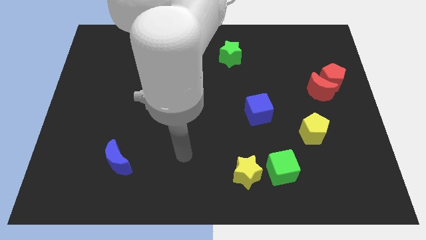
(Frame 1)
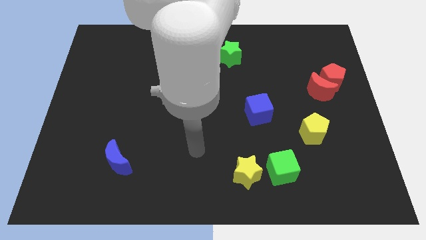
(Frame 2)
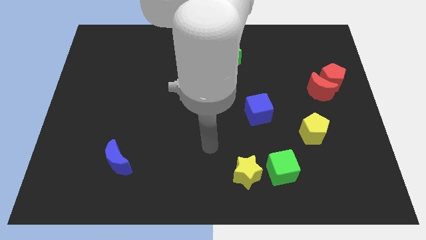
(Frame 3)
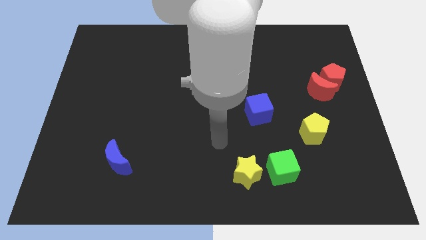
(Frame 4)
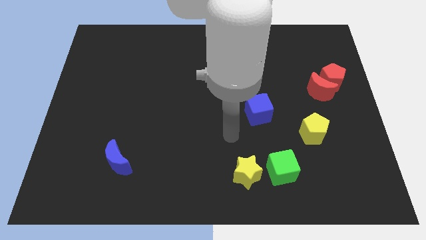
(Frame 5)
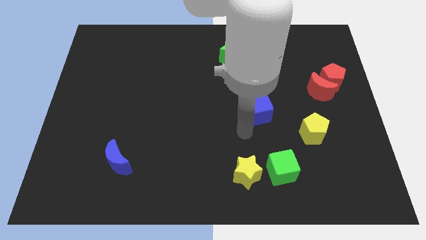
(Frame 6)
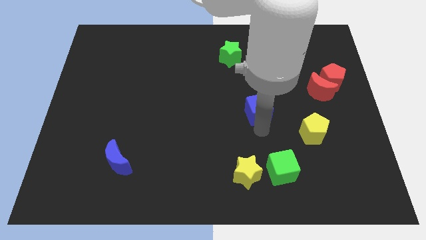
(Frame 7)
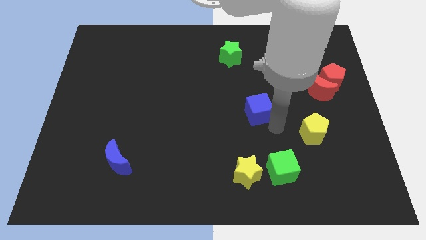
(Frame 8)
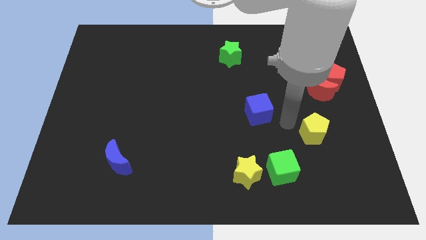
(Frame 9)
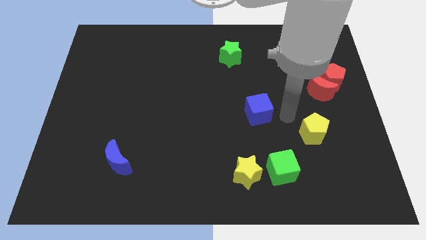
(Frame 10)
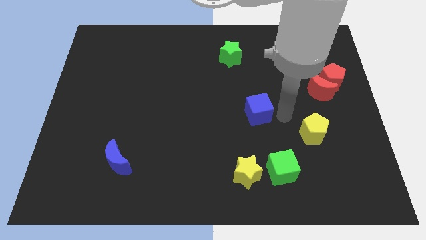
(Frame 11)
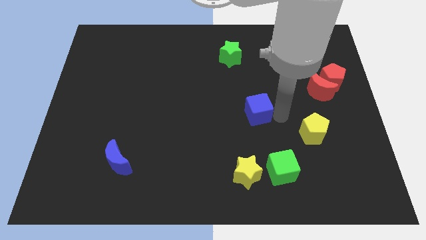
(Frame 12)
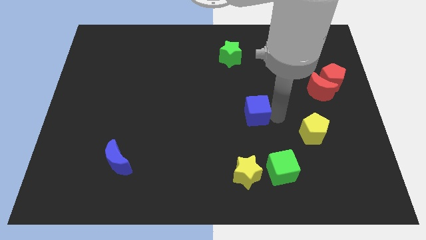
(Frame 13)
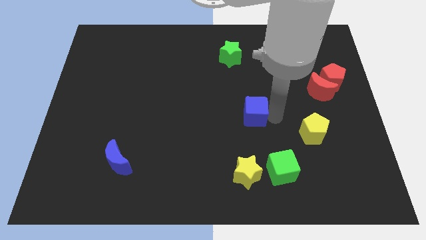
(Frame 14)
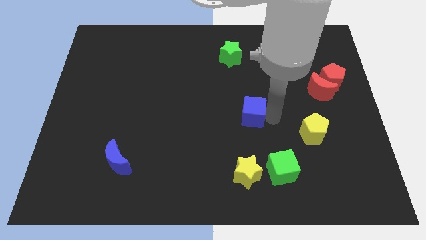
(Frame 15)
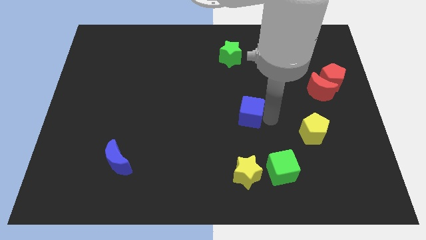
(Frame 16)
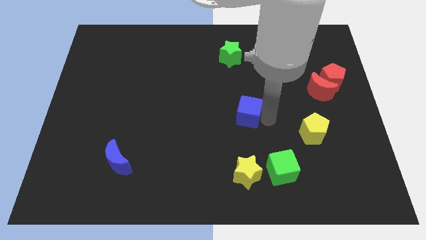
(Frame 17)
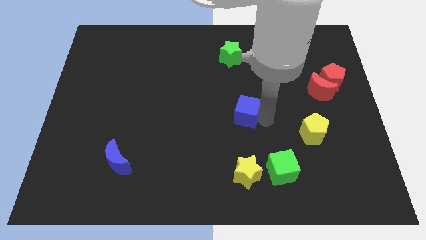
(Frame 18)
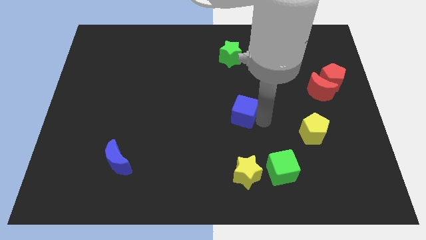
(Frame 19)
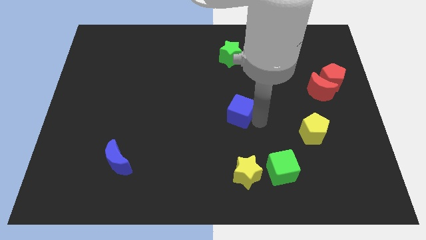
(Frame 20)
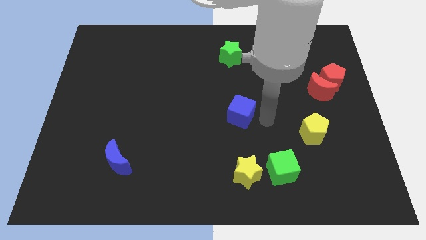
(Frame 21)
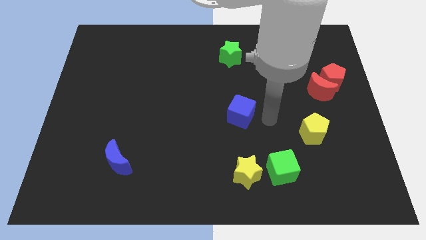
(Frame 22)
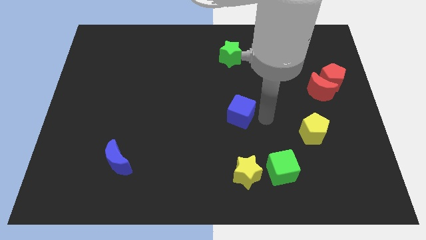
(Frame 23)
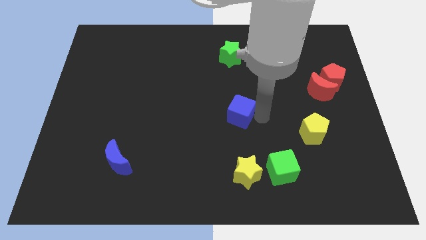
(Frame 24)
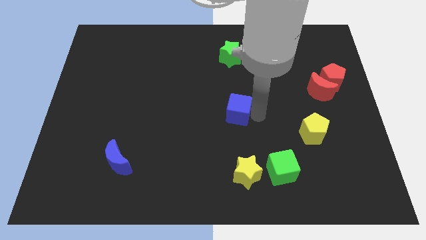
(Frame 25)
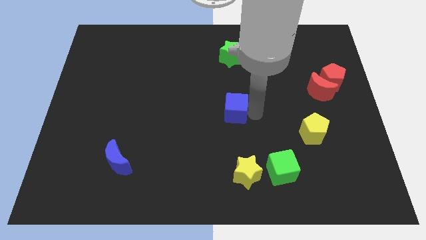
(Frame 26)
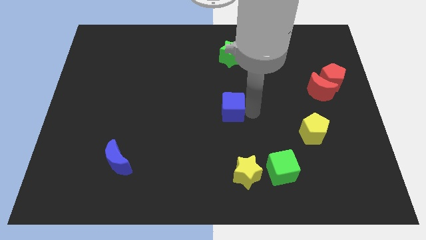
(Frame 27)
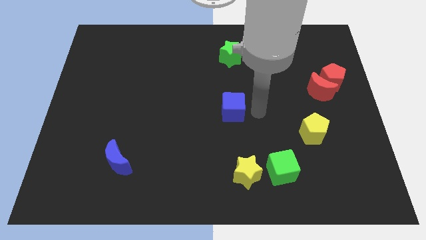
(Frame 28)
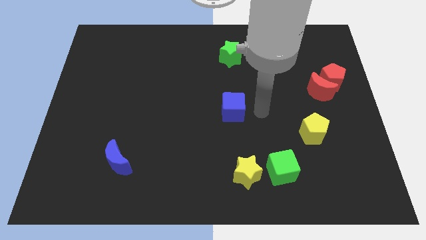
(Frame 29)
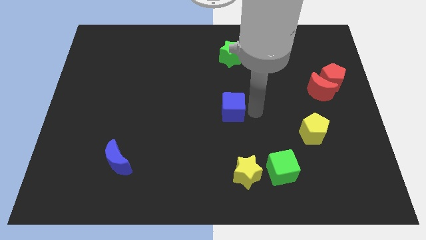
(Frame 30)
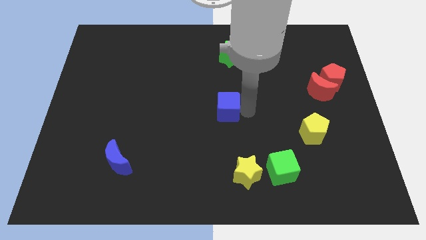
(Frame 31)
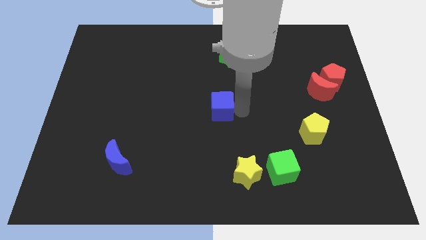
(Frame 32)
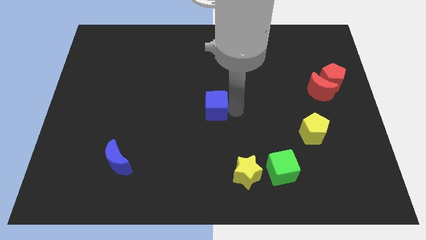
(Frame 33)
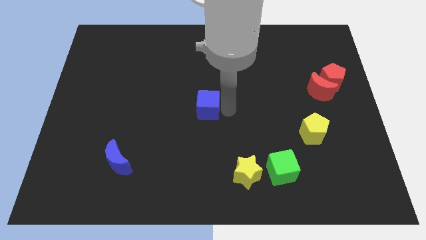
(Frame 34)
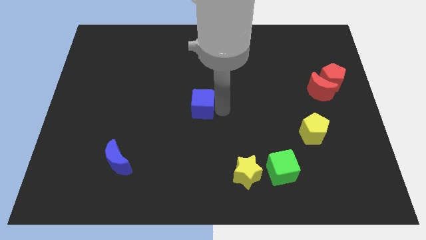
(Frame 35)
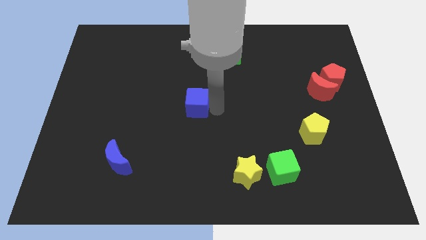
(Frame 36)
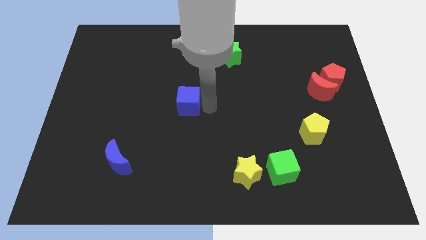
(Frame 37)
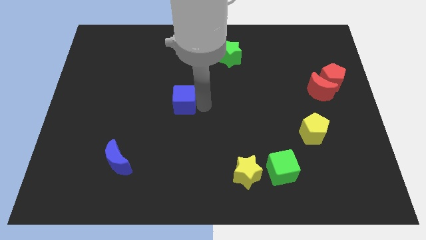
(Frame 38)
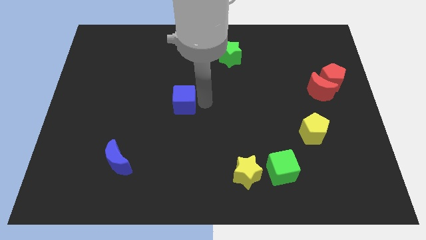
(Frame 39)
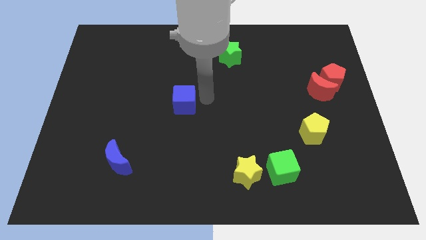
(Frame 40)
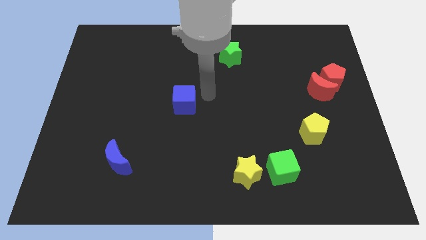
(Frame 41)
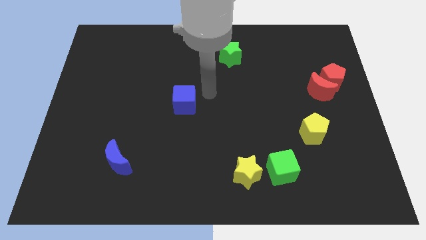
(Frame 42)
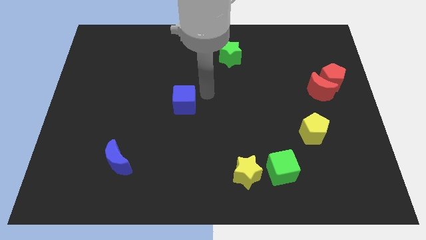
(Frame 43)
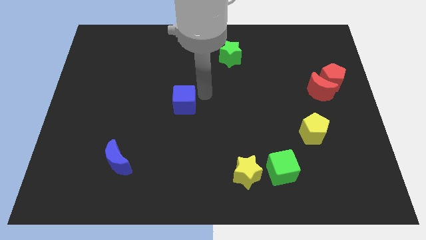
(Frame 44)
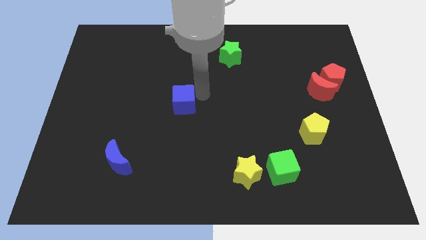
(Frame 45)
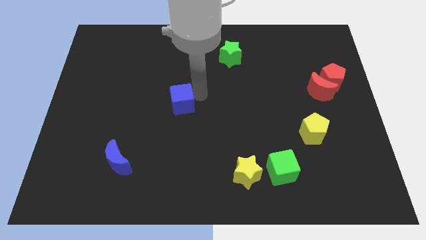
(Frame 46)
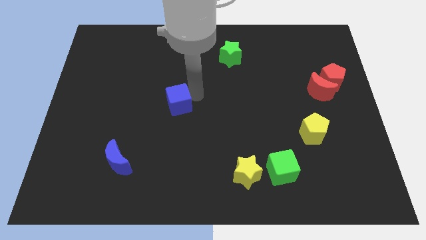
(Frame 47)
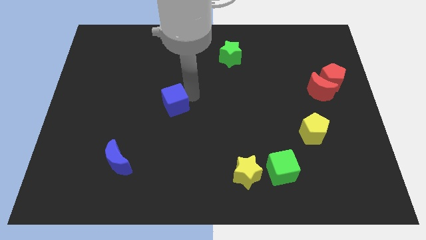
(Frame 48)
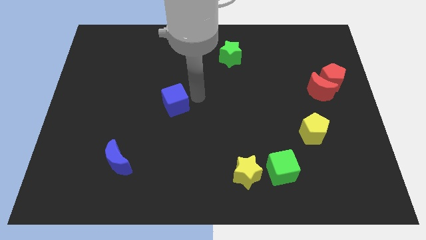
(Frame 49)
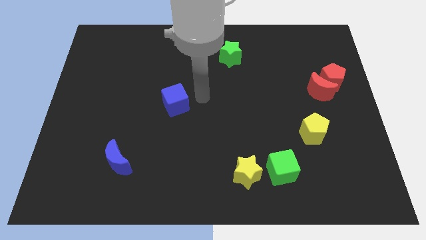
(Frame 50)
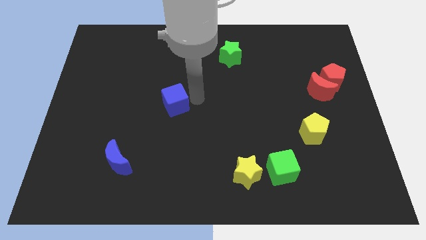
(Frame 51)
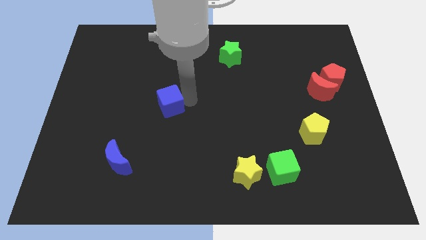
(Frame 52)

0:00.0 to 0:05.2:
move the blue cube to the left

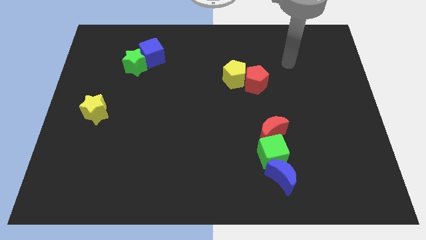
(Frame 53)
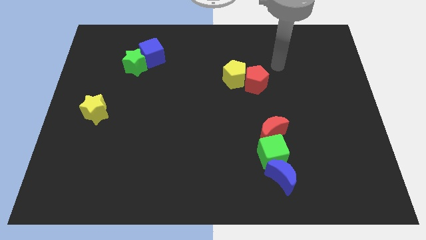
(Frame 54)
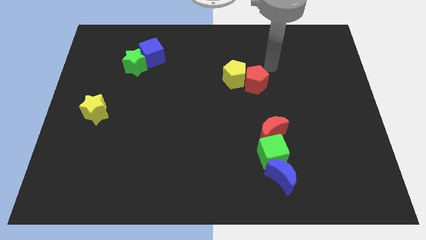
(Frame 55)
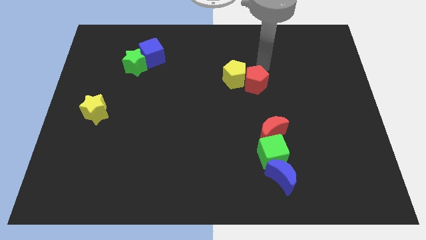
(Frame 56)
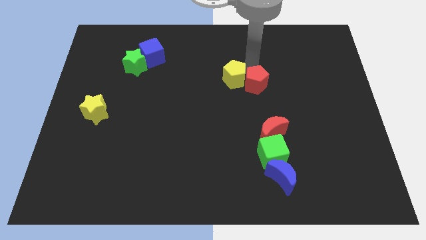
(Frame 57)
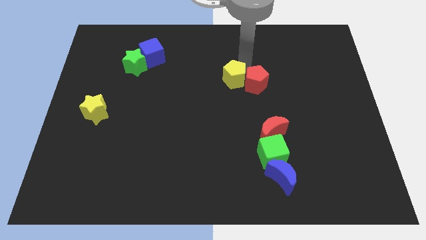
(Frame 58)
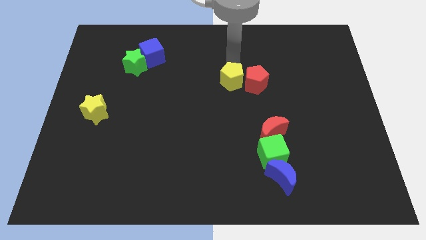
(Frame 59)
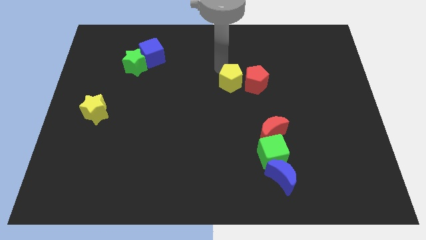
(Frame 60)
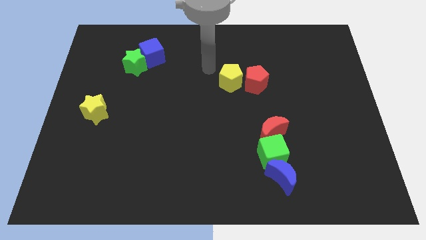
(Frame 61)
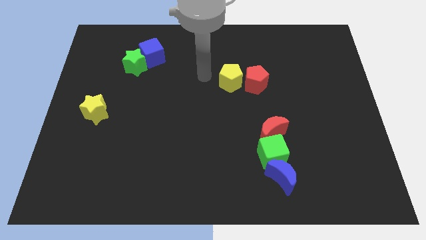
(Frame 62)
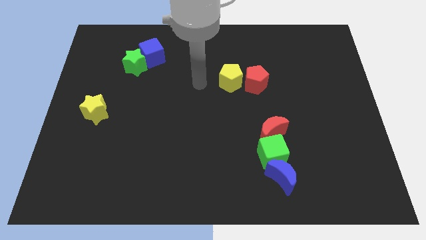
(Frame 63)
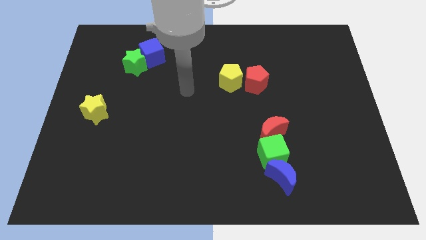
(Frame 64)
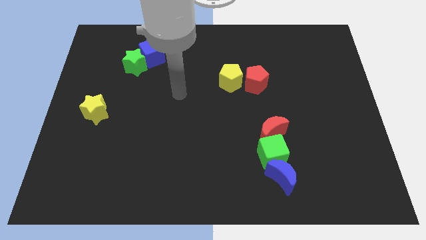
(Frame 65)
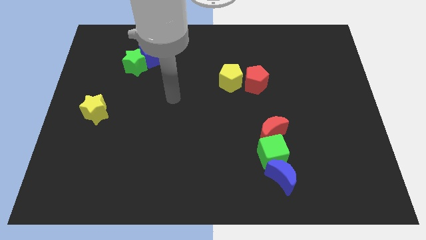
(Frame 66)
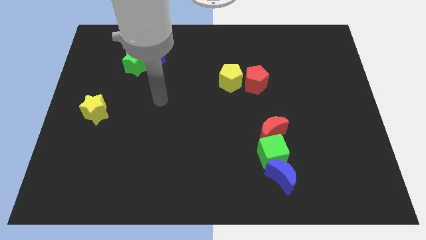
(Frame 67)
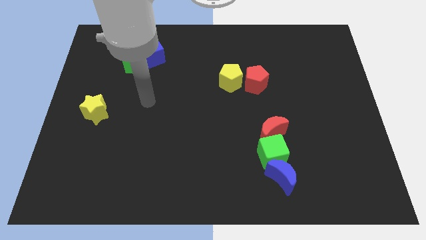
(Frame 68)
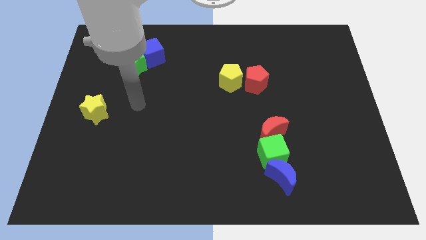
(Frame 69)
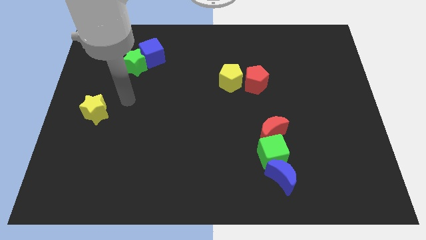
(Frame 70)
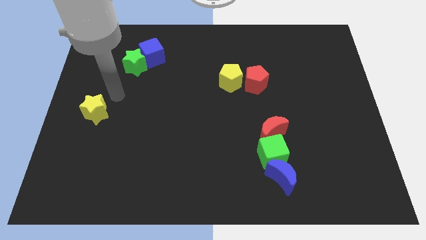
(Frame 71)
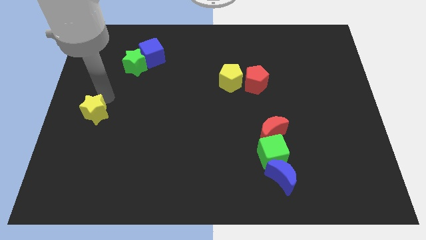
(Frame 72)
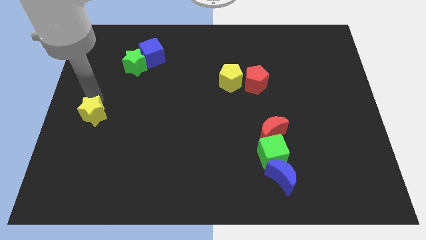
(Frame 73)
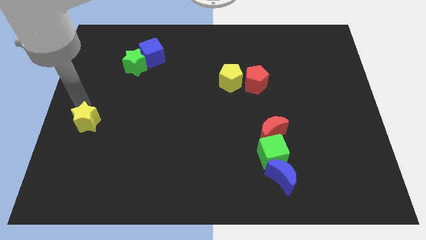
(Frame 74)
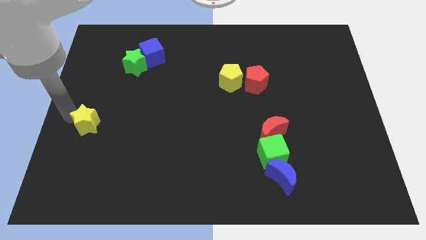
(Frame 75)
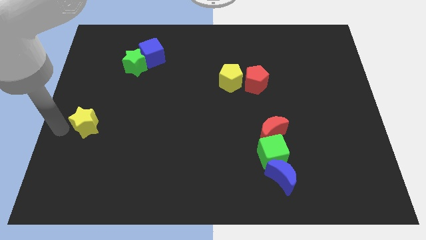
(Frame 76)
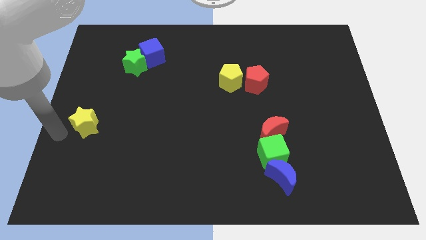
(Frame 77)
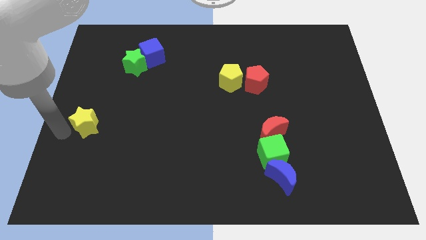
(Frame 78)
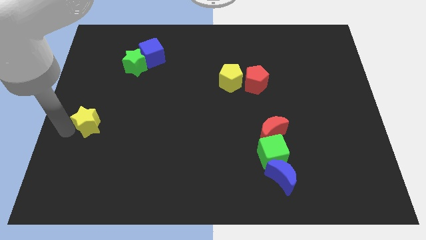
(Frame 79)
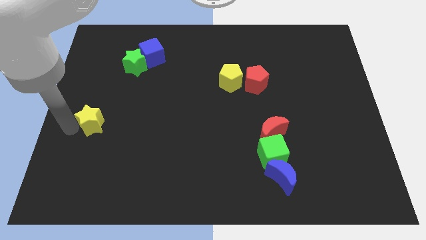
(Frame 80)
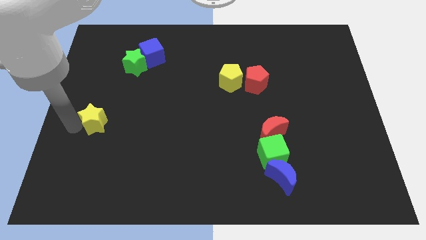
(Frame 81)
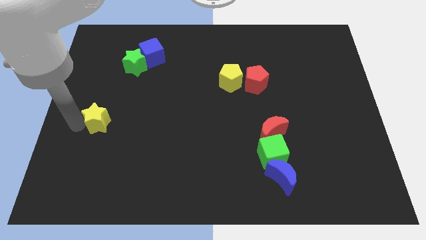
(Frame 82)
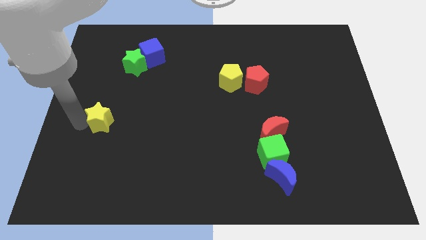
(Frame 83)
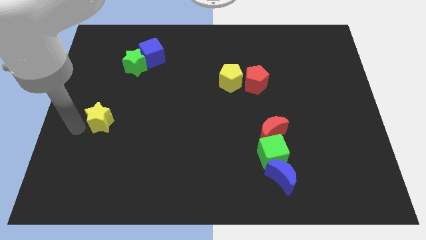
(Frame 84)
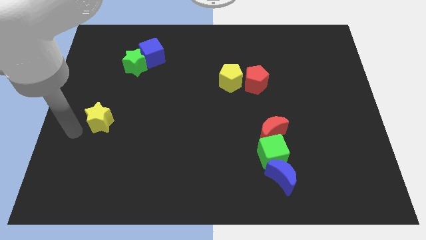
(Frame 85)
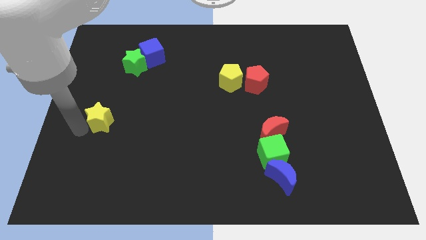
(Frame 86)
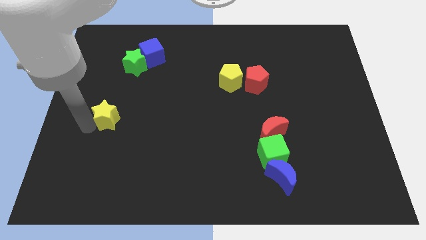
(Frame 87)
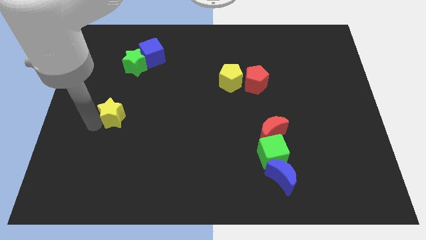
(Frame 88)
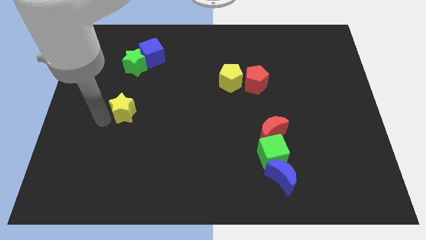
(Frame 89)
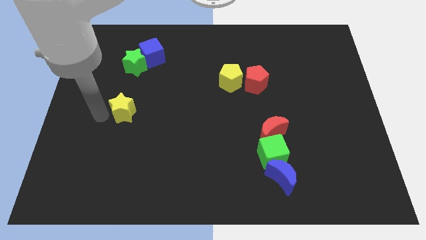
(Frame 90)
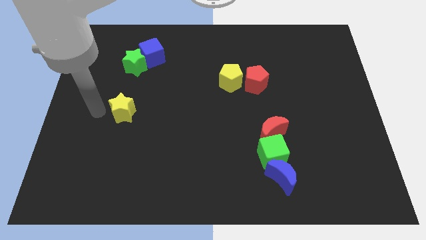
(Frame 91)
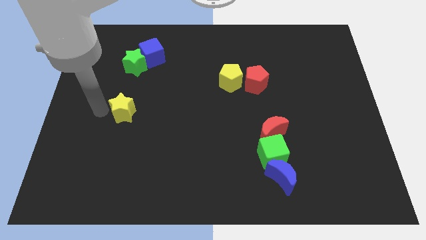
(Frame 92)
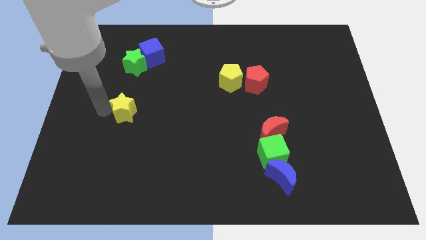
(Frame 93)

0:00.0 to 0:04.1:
move the yellow star right a little bit
